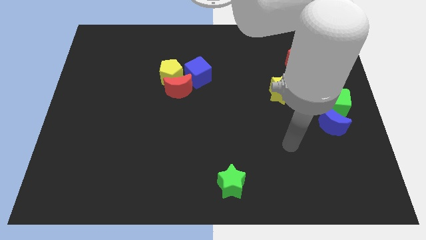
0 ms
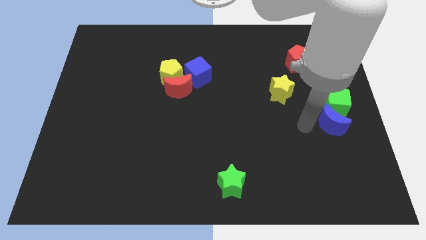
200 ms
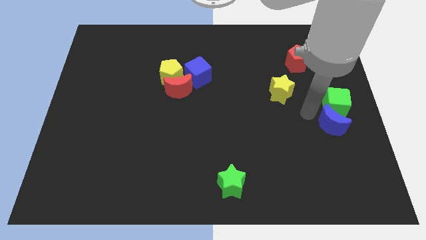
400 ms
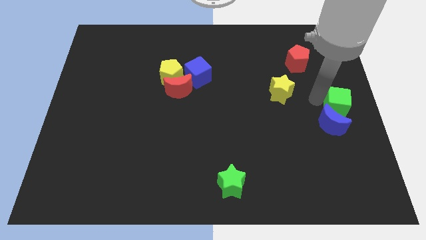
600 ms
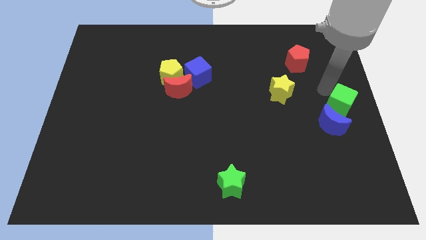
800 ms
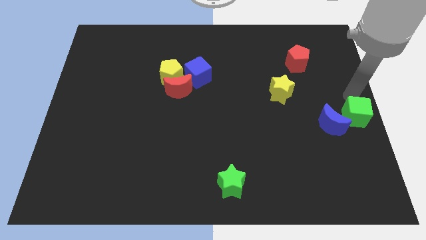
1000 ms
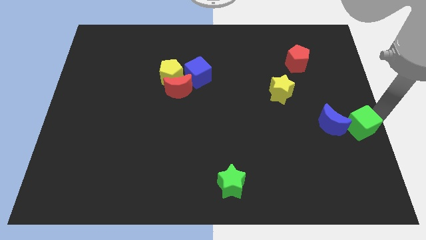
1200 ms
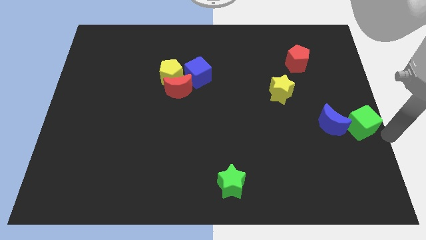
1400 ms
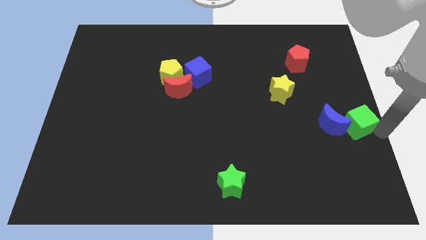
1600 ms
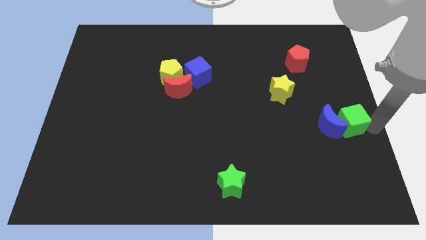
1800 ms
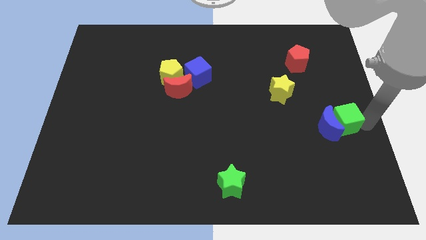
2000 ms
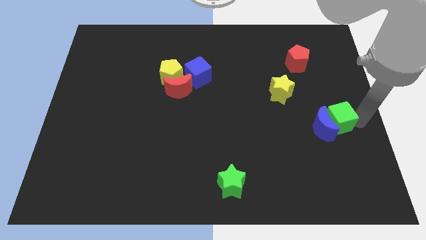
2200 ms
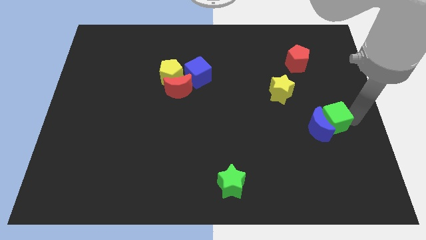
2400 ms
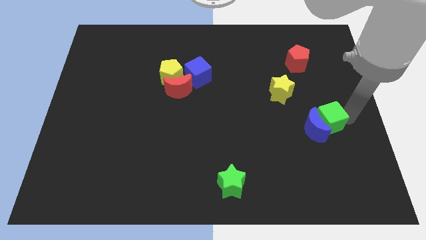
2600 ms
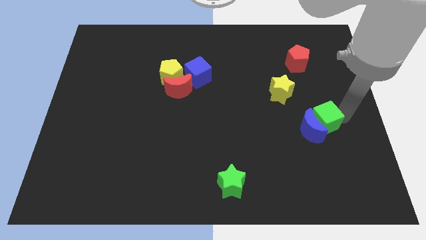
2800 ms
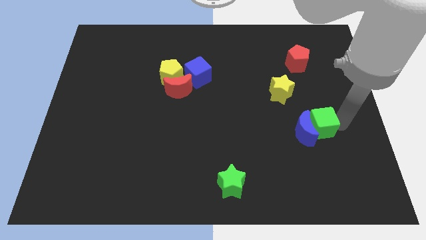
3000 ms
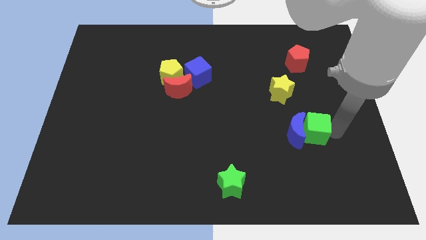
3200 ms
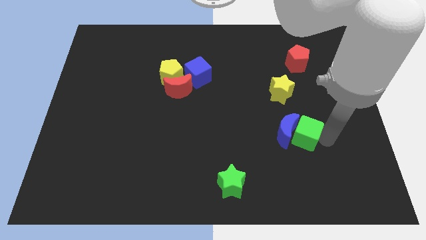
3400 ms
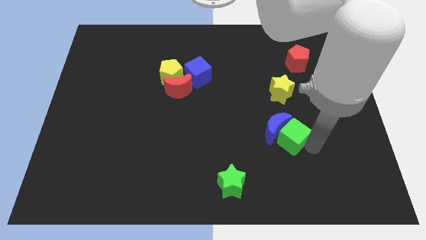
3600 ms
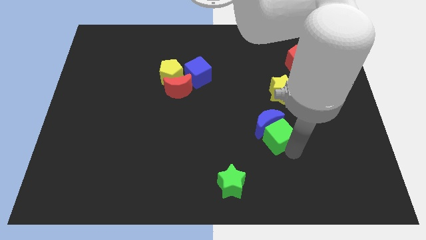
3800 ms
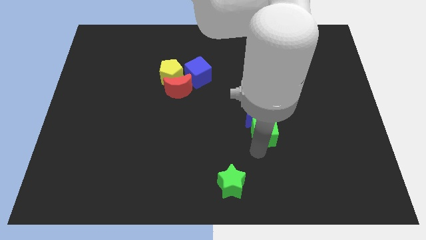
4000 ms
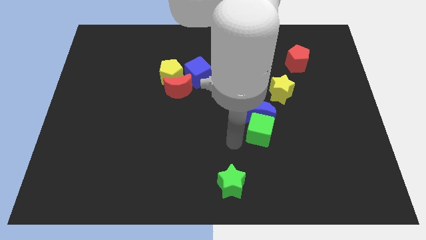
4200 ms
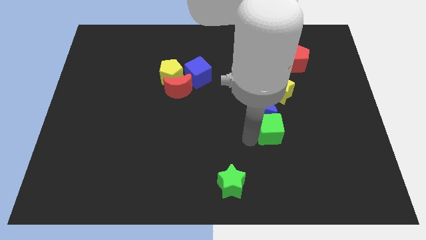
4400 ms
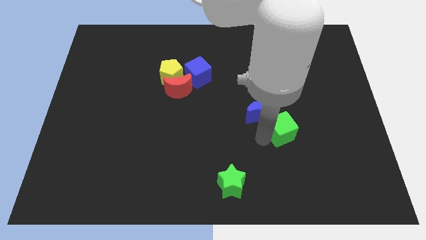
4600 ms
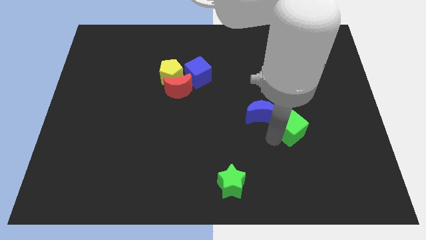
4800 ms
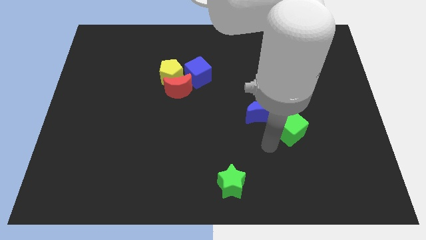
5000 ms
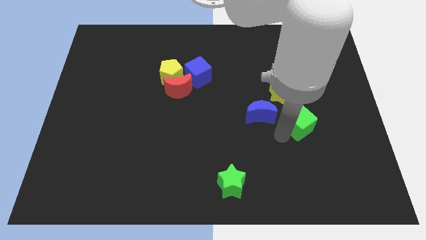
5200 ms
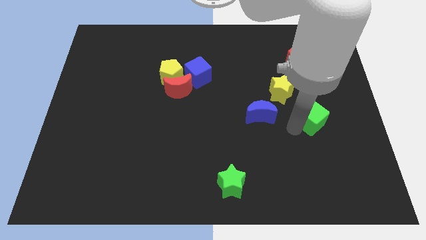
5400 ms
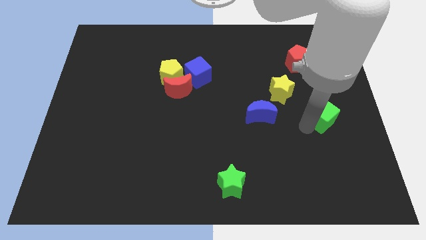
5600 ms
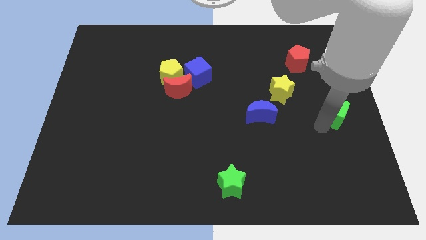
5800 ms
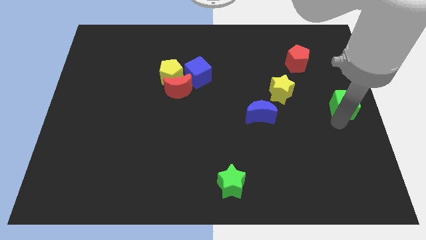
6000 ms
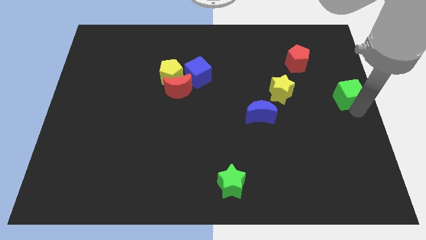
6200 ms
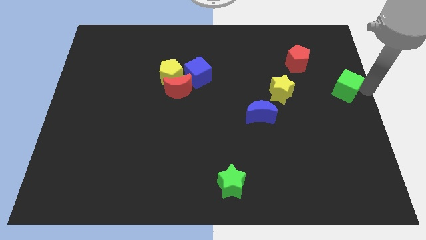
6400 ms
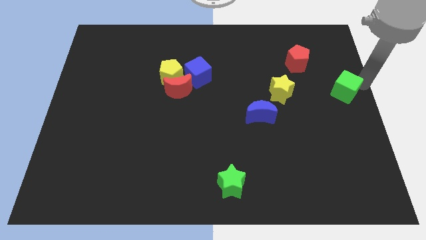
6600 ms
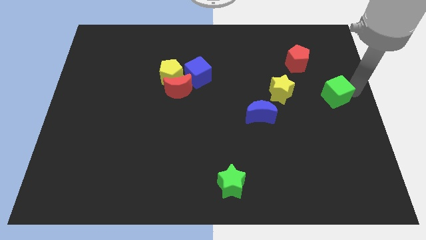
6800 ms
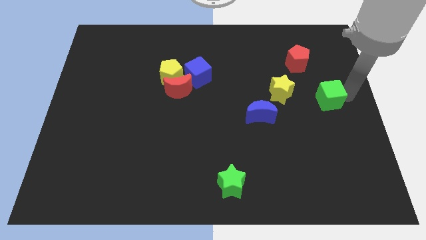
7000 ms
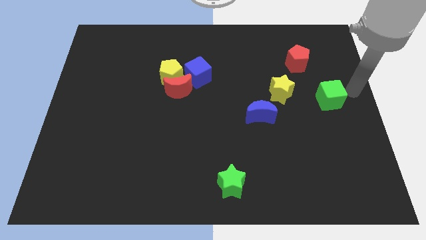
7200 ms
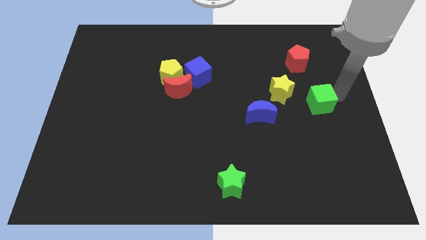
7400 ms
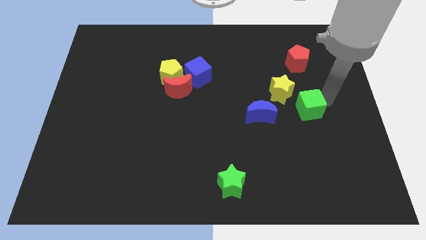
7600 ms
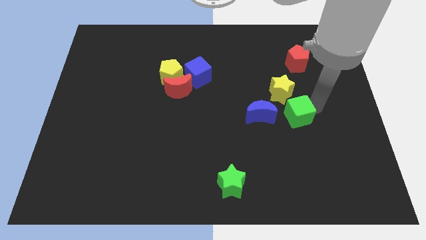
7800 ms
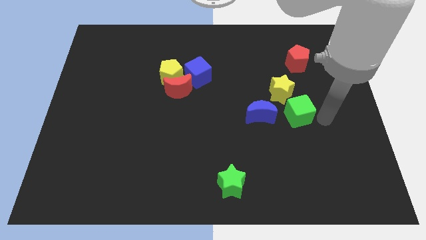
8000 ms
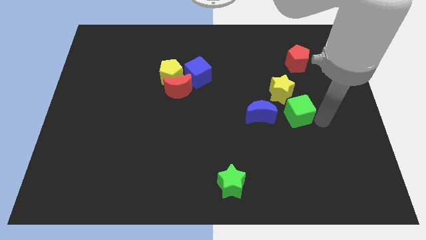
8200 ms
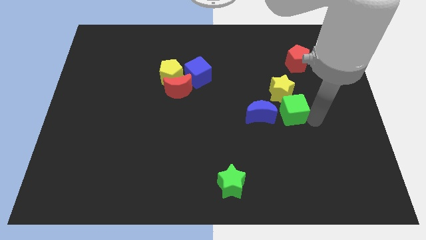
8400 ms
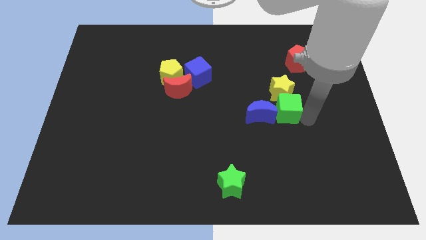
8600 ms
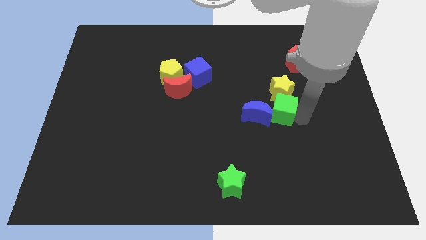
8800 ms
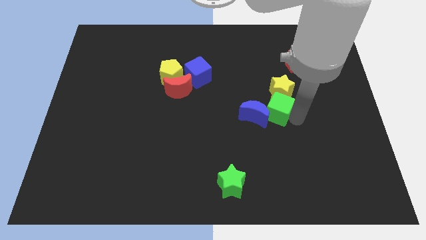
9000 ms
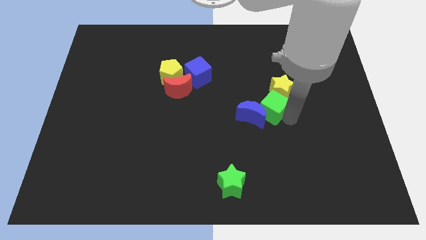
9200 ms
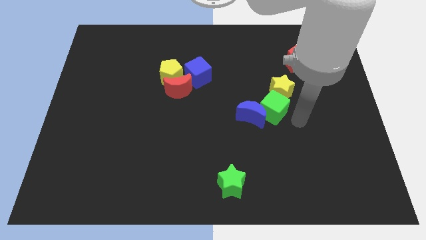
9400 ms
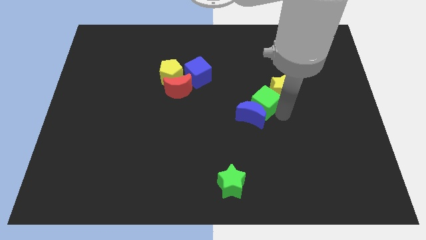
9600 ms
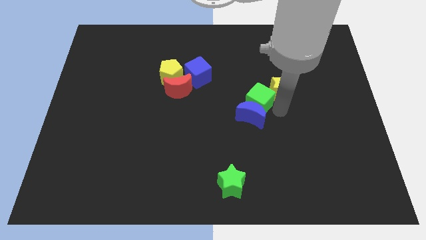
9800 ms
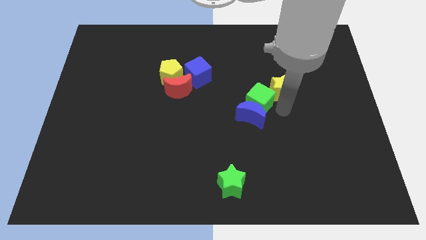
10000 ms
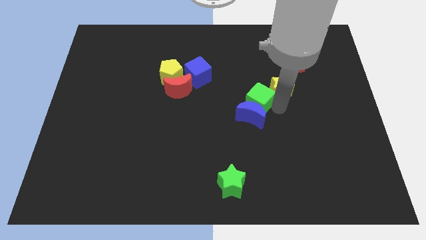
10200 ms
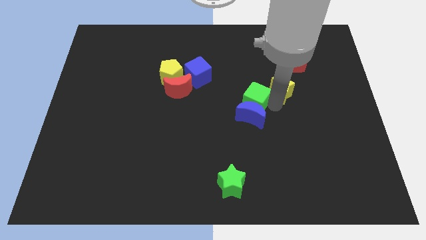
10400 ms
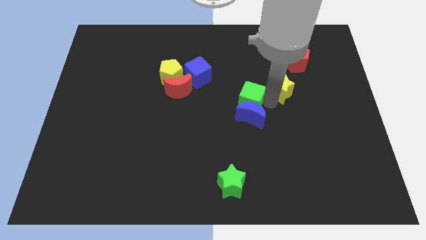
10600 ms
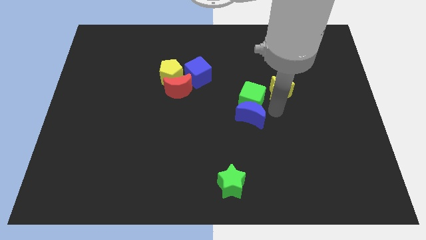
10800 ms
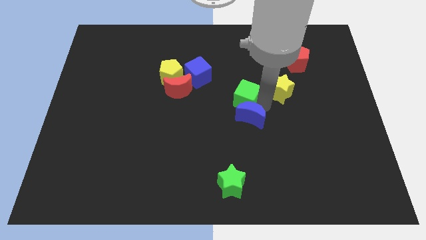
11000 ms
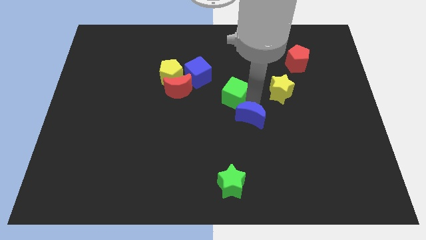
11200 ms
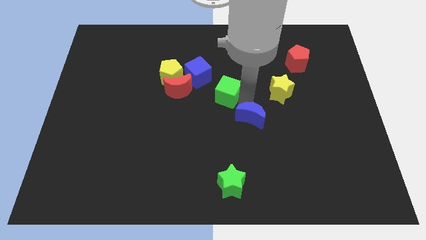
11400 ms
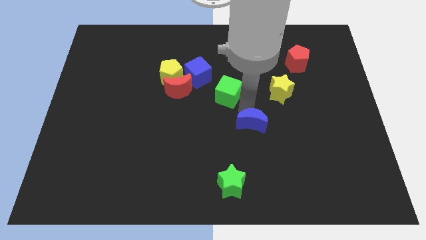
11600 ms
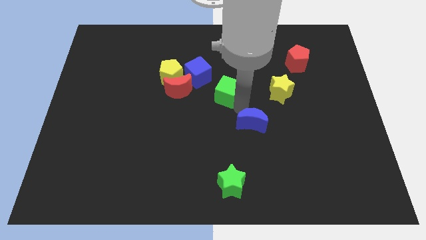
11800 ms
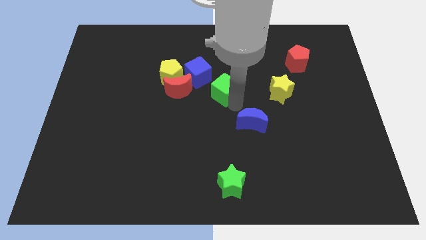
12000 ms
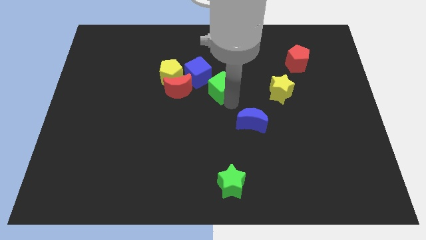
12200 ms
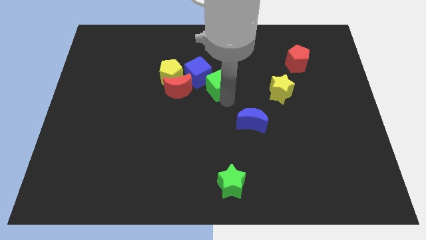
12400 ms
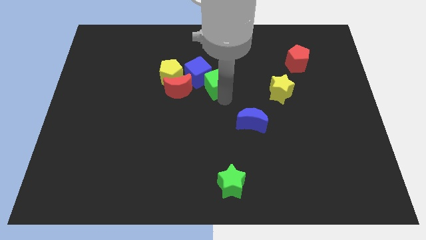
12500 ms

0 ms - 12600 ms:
move the green cube to the blue cube

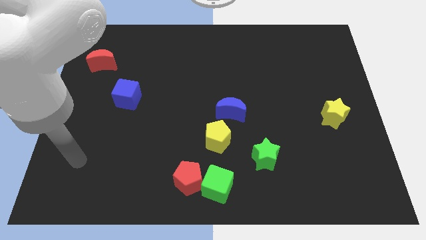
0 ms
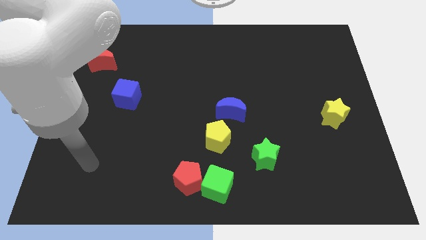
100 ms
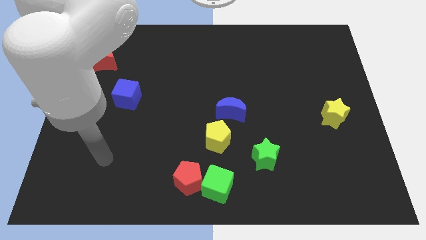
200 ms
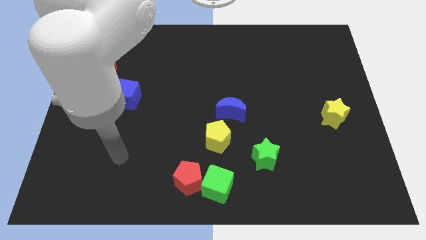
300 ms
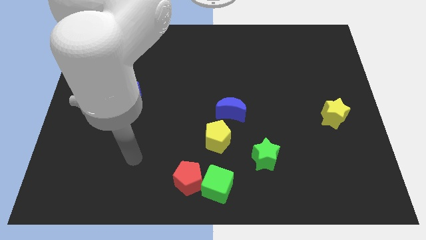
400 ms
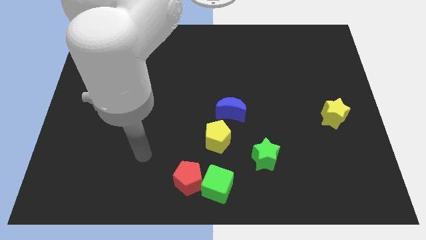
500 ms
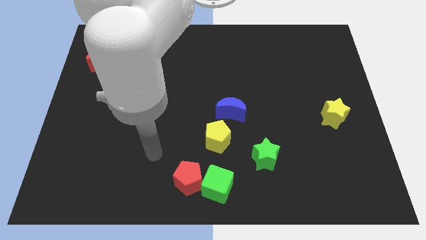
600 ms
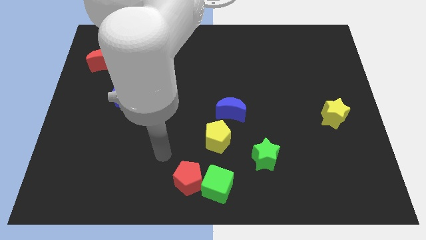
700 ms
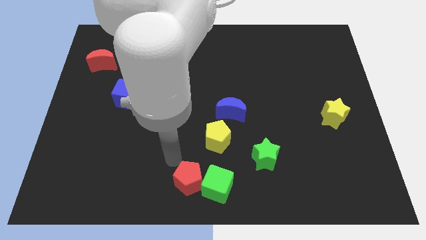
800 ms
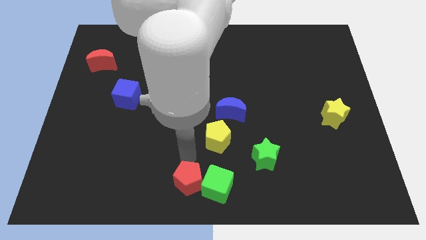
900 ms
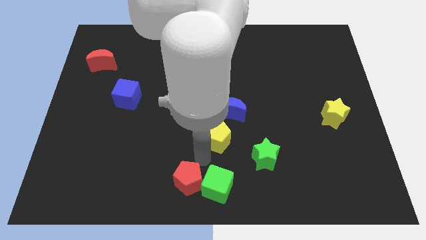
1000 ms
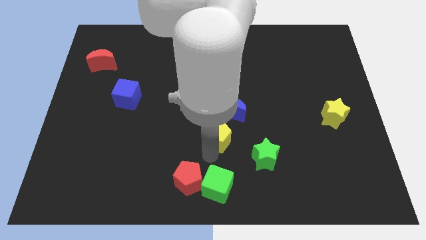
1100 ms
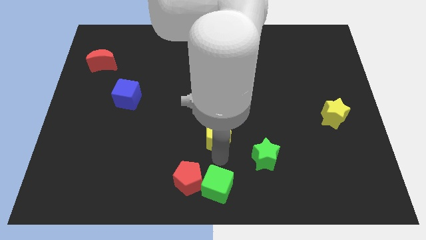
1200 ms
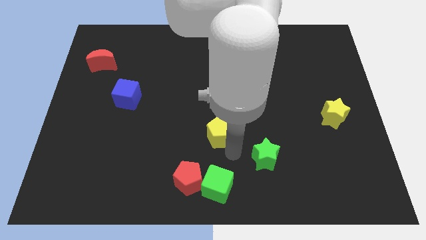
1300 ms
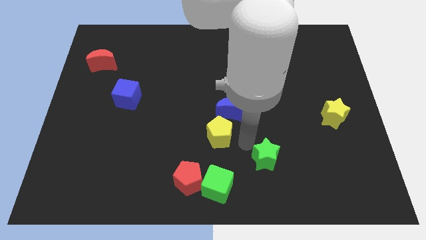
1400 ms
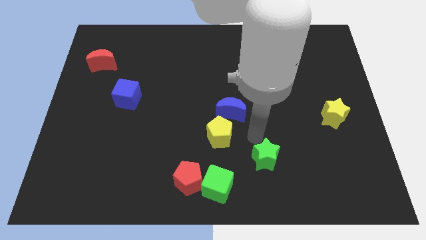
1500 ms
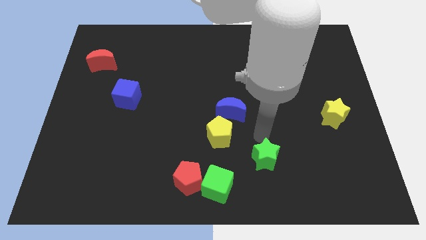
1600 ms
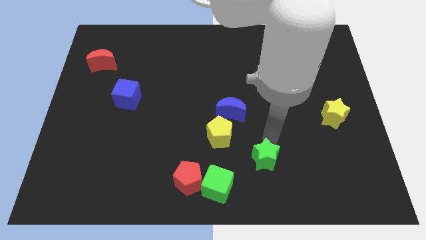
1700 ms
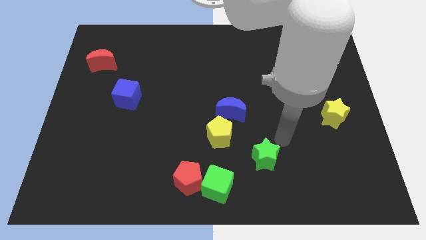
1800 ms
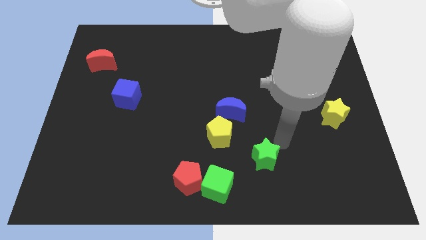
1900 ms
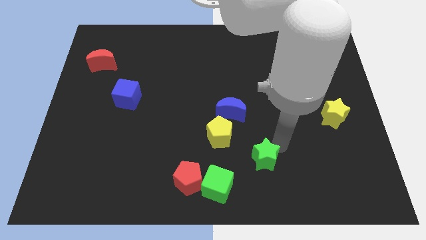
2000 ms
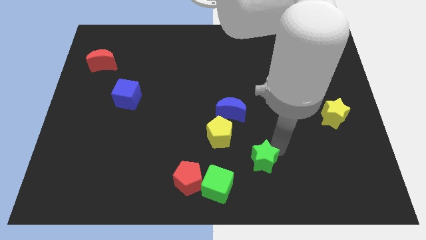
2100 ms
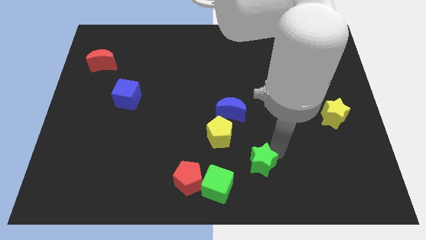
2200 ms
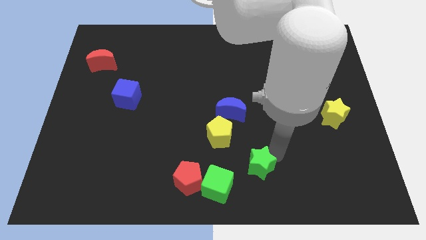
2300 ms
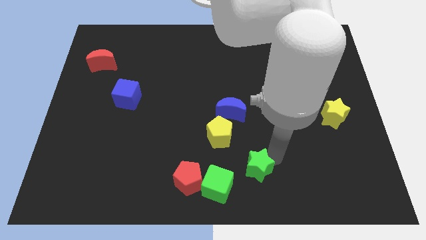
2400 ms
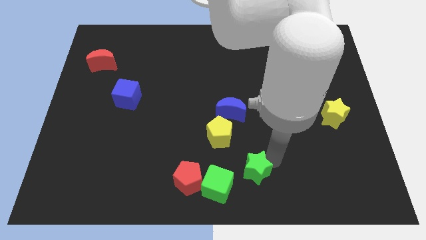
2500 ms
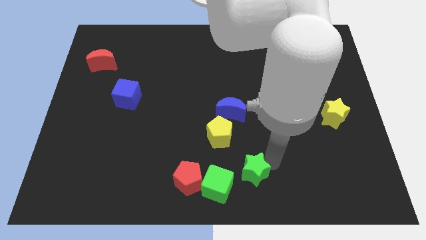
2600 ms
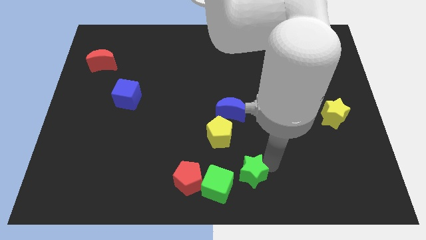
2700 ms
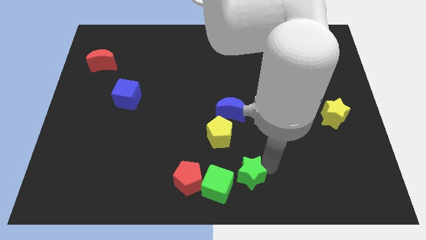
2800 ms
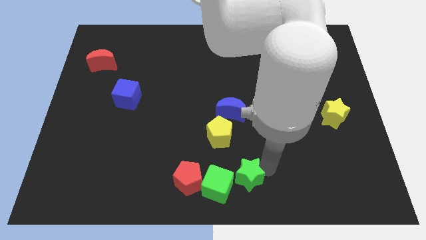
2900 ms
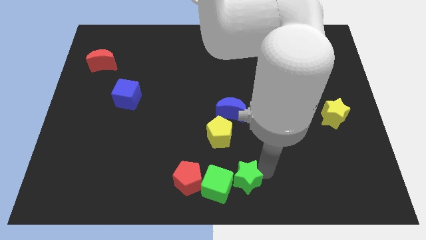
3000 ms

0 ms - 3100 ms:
put the green star next to the green cube
